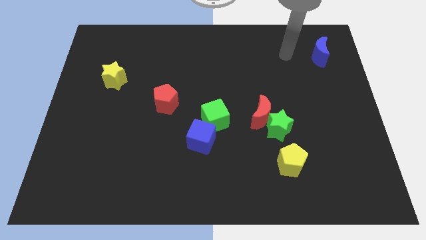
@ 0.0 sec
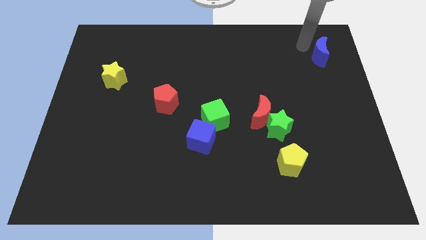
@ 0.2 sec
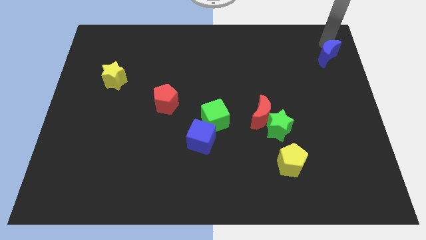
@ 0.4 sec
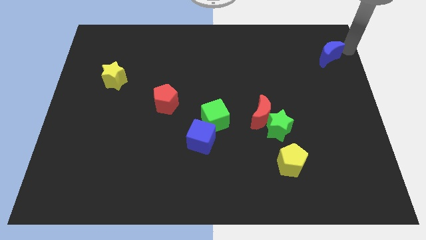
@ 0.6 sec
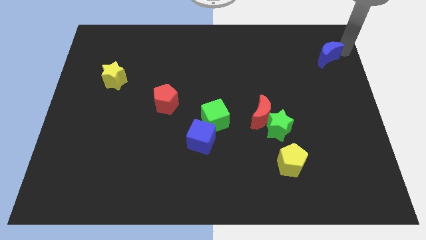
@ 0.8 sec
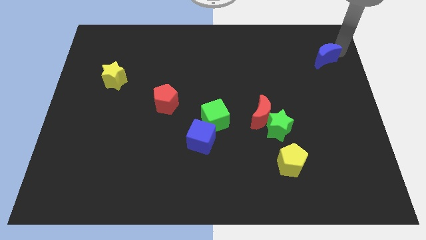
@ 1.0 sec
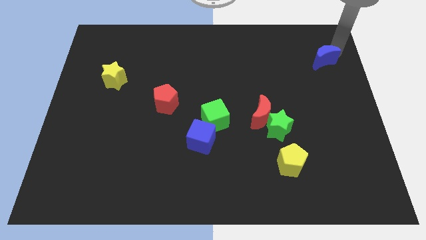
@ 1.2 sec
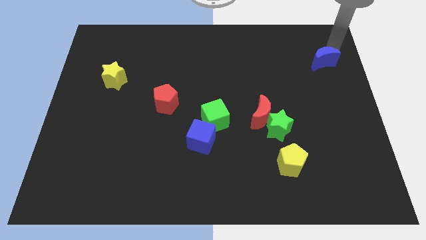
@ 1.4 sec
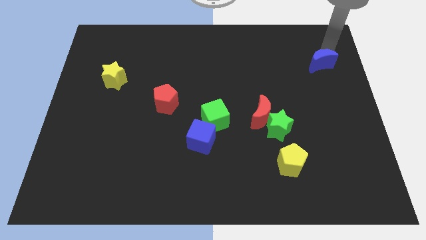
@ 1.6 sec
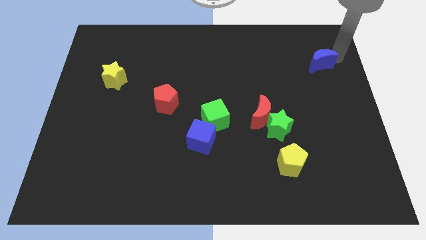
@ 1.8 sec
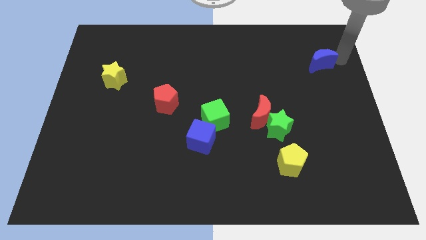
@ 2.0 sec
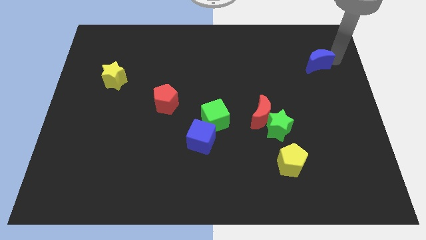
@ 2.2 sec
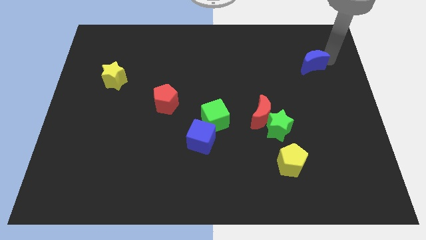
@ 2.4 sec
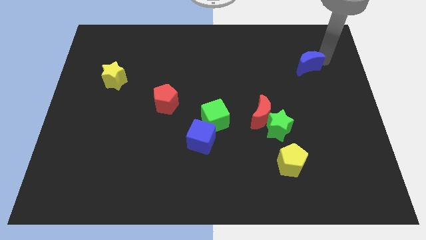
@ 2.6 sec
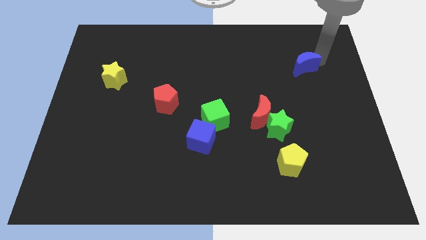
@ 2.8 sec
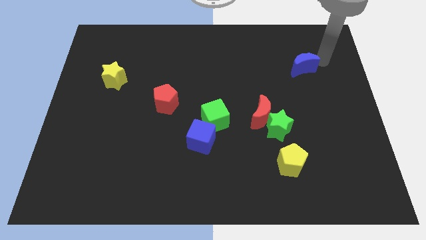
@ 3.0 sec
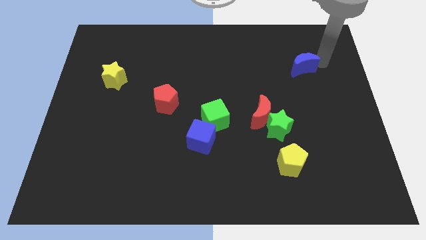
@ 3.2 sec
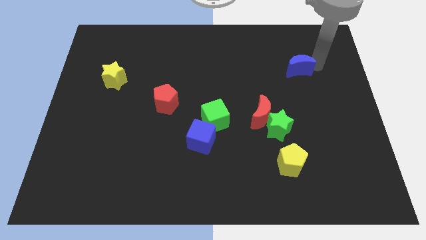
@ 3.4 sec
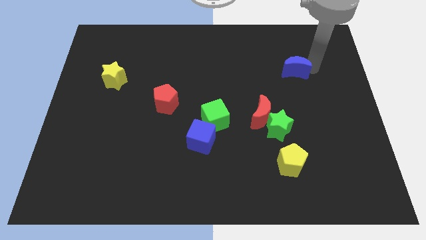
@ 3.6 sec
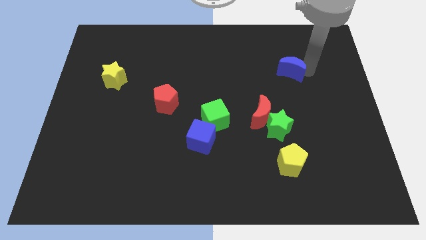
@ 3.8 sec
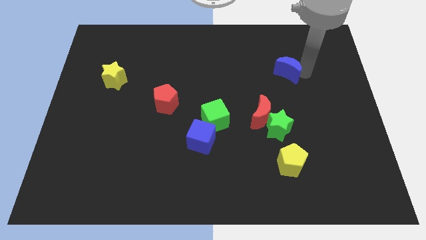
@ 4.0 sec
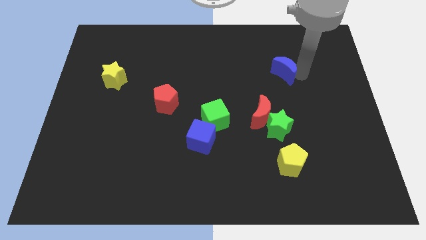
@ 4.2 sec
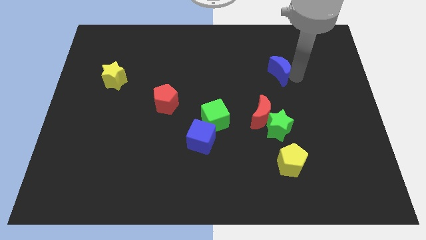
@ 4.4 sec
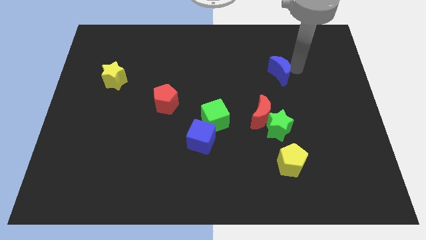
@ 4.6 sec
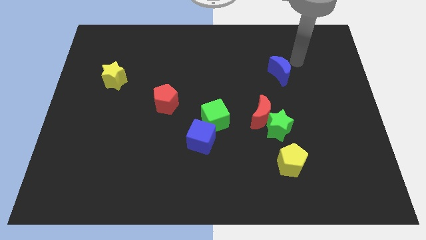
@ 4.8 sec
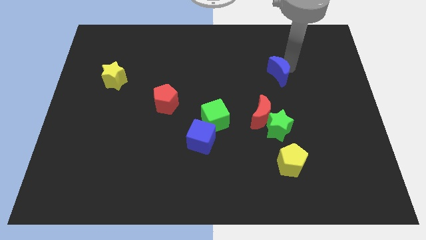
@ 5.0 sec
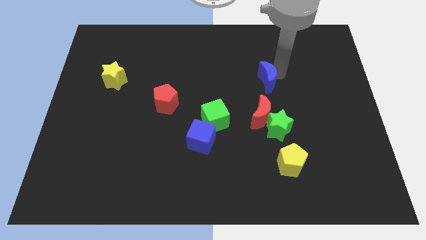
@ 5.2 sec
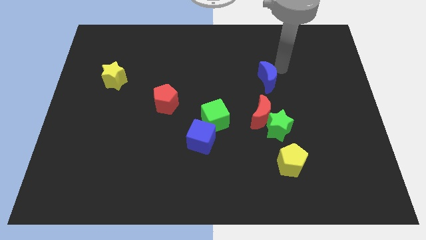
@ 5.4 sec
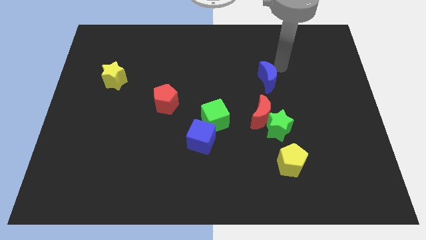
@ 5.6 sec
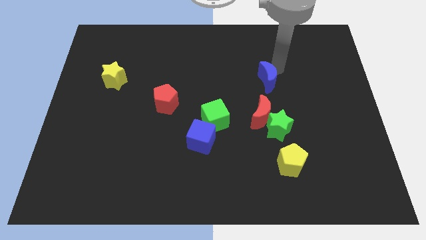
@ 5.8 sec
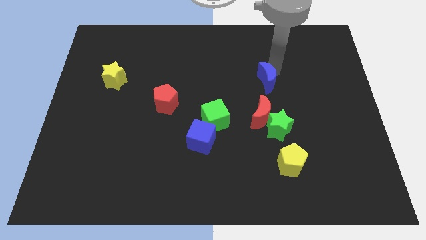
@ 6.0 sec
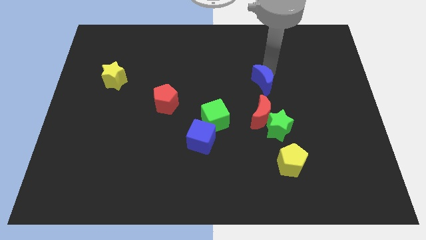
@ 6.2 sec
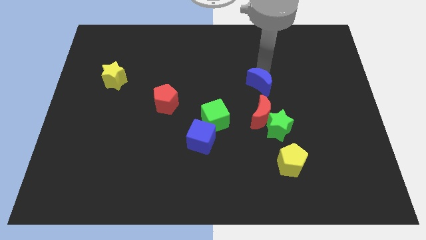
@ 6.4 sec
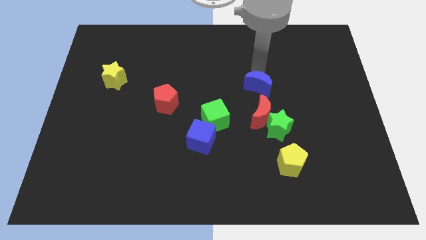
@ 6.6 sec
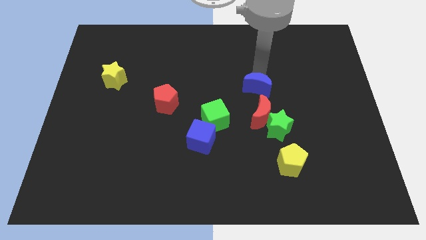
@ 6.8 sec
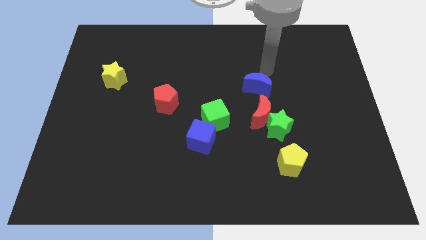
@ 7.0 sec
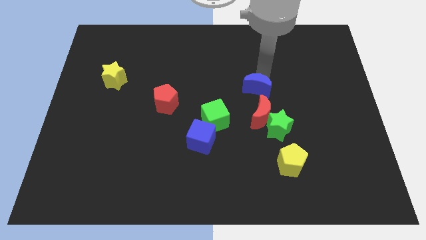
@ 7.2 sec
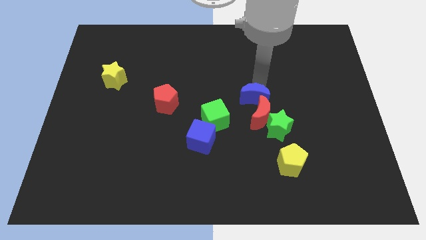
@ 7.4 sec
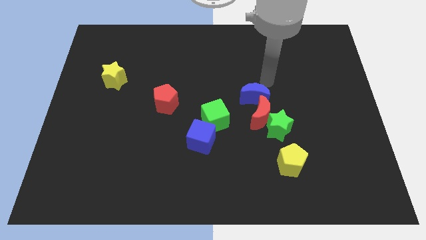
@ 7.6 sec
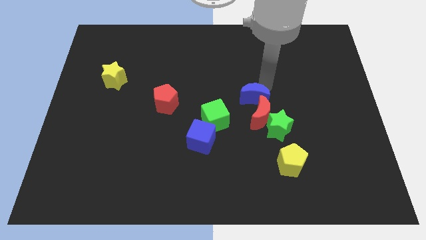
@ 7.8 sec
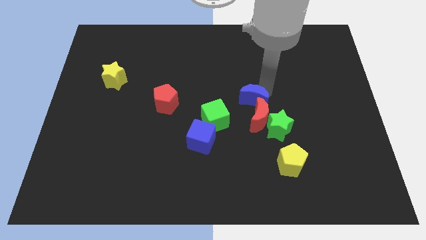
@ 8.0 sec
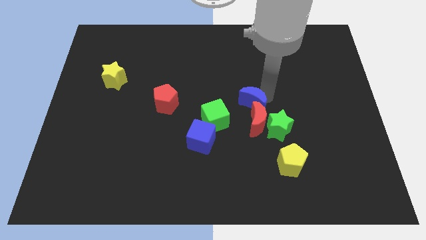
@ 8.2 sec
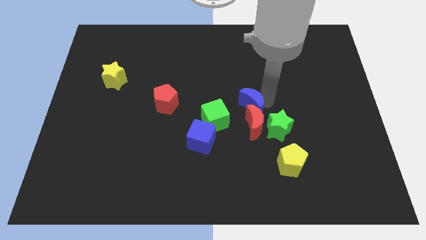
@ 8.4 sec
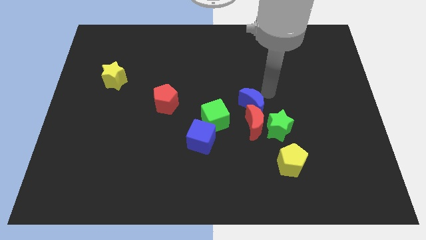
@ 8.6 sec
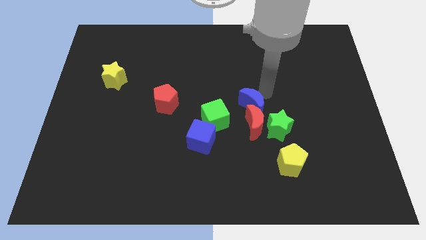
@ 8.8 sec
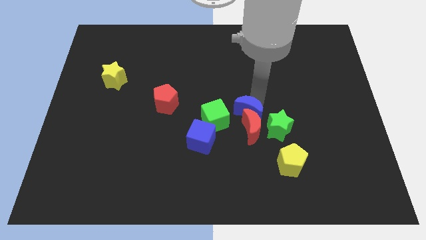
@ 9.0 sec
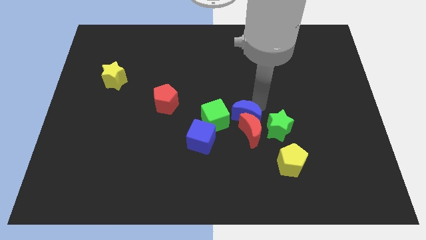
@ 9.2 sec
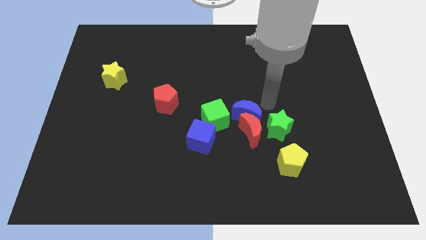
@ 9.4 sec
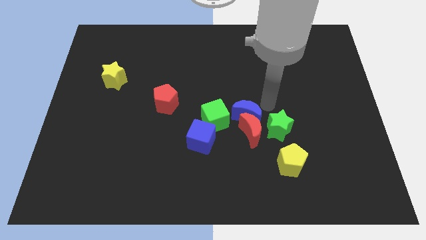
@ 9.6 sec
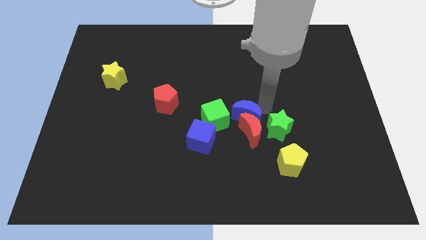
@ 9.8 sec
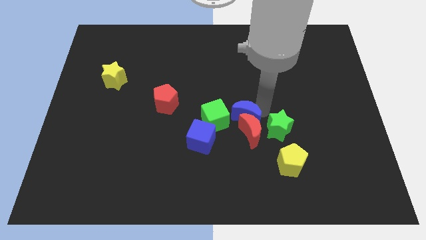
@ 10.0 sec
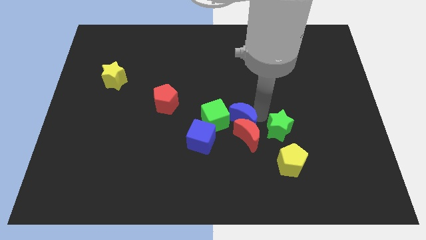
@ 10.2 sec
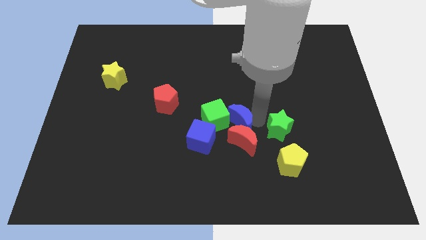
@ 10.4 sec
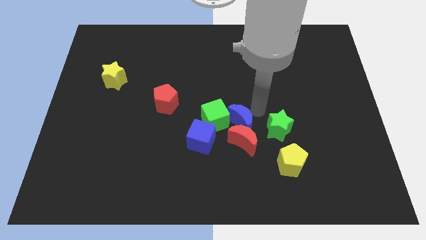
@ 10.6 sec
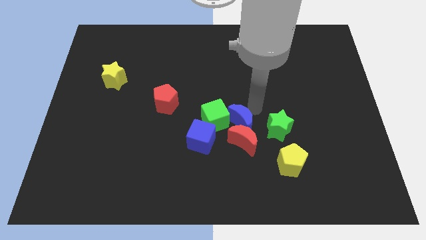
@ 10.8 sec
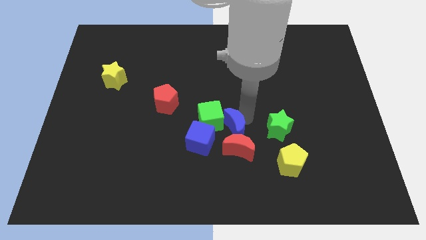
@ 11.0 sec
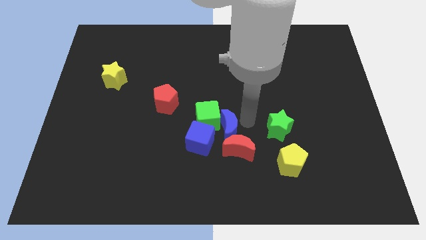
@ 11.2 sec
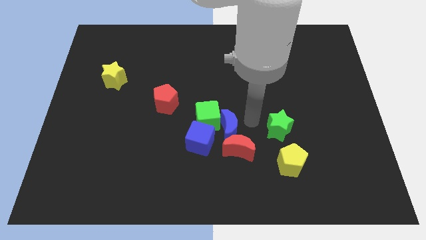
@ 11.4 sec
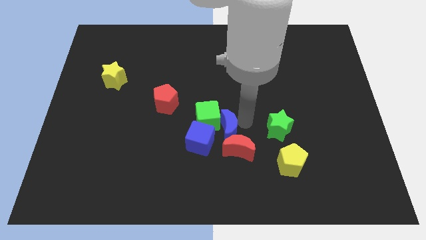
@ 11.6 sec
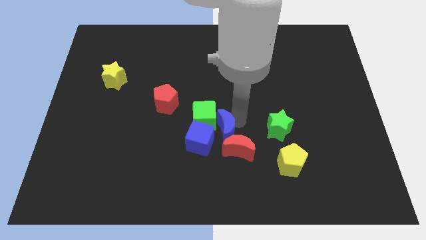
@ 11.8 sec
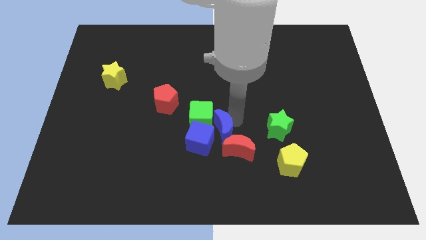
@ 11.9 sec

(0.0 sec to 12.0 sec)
put the blue moon towards the blue cube

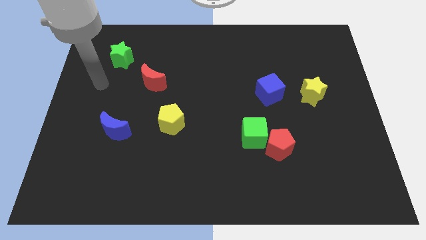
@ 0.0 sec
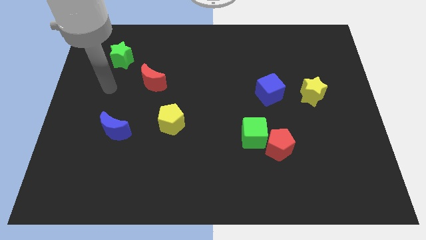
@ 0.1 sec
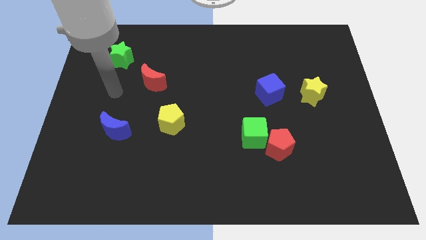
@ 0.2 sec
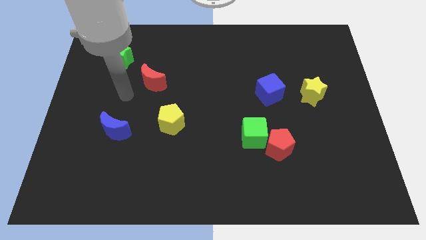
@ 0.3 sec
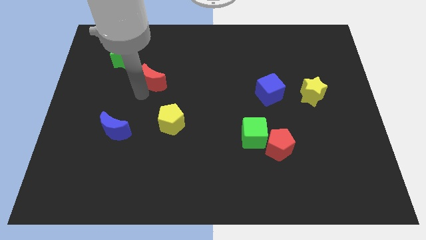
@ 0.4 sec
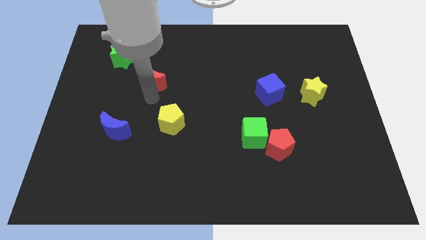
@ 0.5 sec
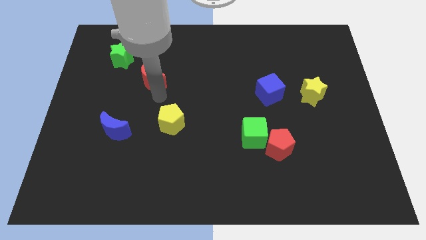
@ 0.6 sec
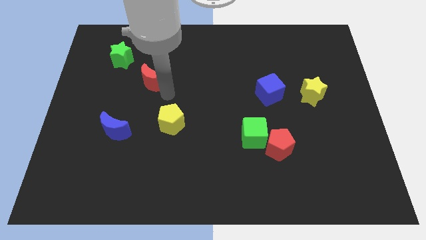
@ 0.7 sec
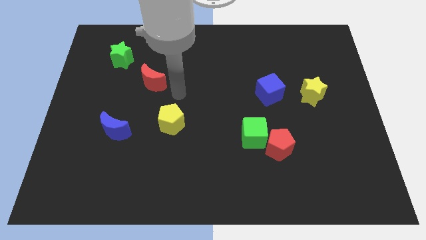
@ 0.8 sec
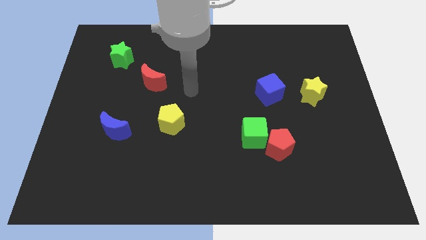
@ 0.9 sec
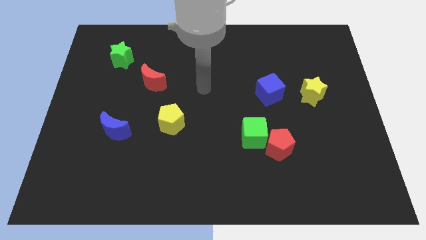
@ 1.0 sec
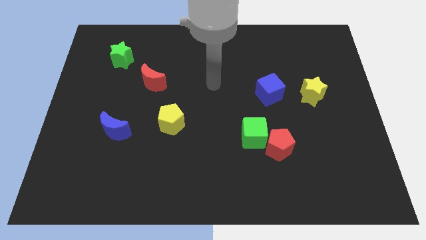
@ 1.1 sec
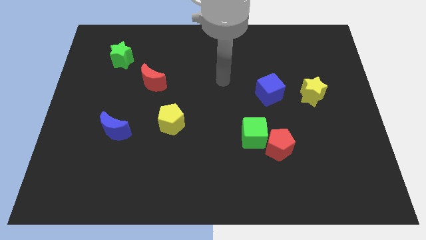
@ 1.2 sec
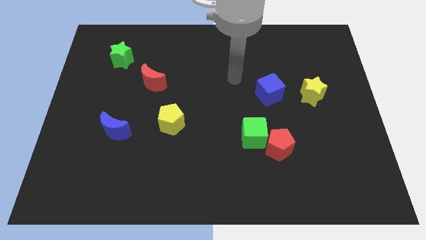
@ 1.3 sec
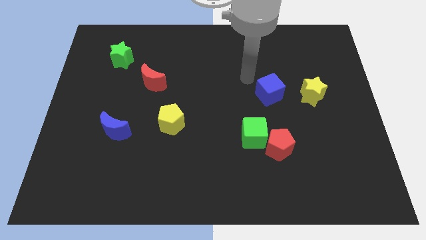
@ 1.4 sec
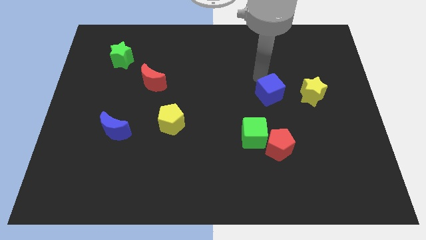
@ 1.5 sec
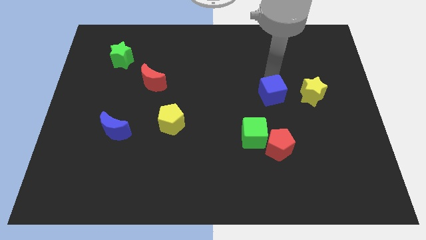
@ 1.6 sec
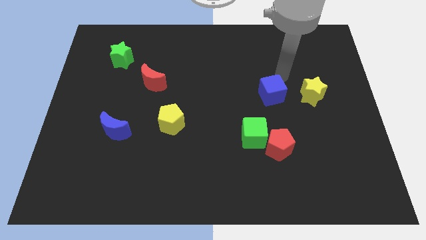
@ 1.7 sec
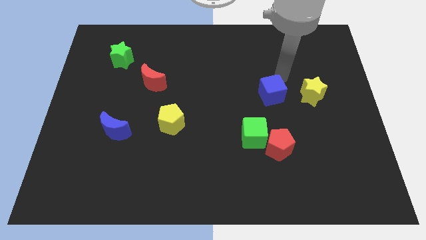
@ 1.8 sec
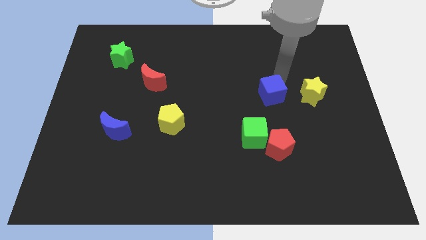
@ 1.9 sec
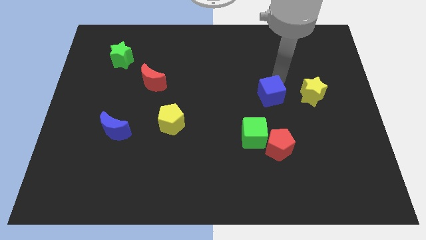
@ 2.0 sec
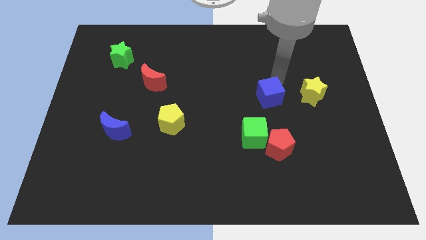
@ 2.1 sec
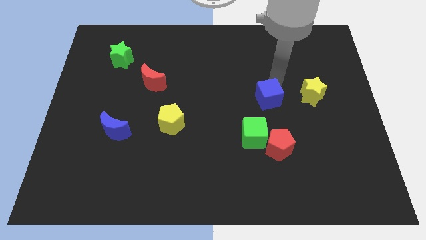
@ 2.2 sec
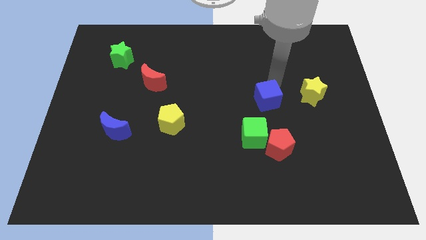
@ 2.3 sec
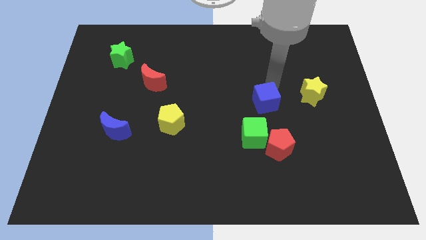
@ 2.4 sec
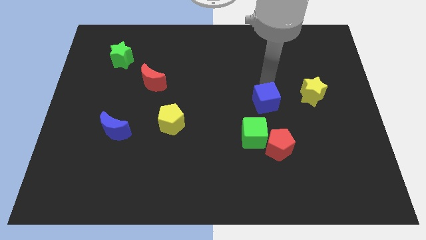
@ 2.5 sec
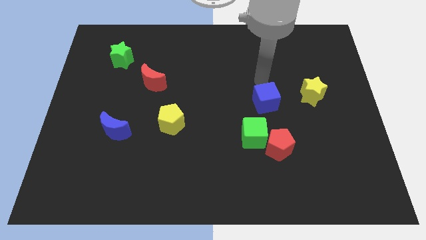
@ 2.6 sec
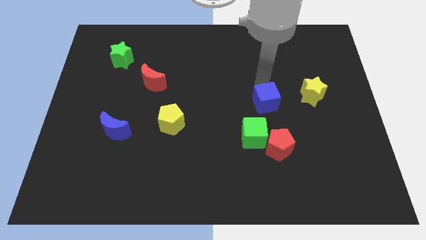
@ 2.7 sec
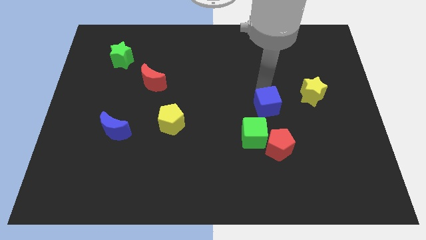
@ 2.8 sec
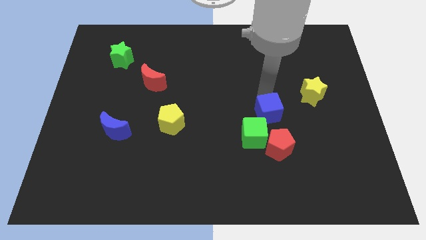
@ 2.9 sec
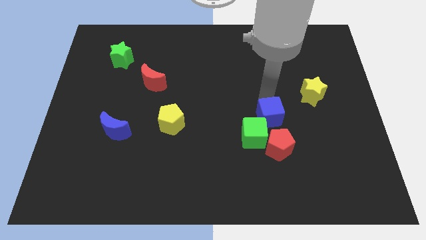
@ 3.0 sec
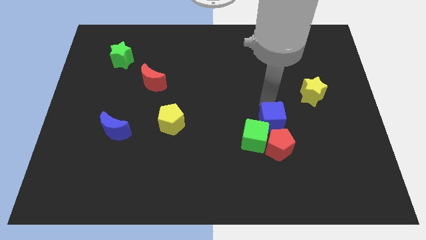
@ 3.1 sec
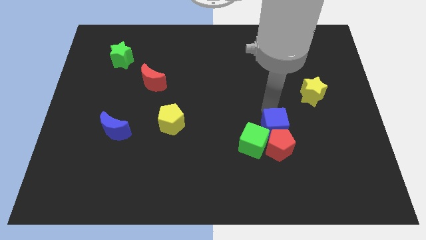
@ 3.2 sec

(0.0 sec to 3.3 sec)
slide the blue cube towards the red pentagon
